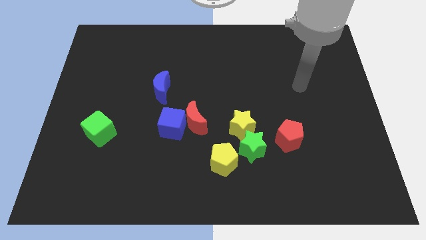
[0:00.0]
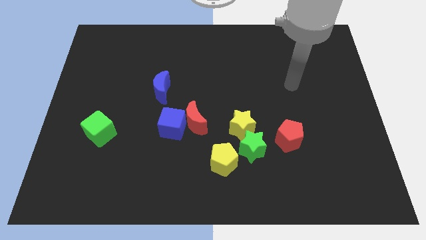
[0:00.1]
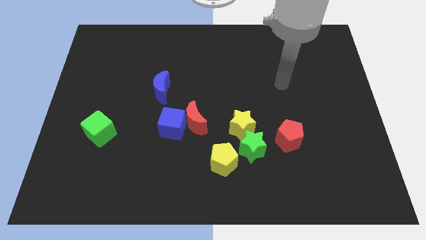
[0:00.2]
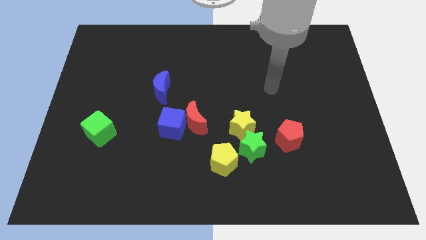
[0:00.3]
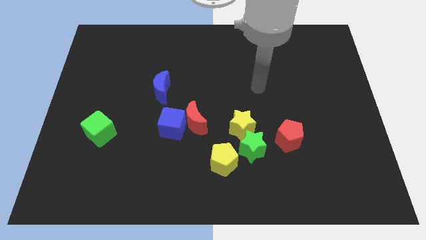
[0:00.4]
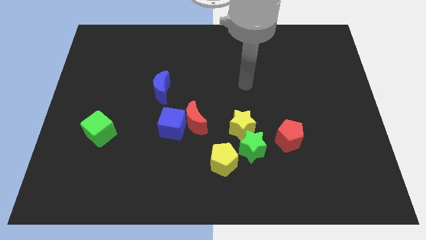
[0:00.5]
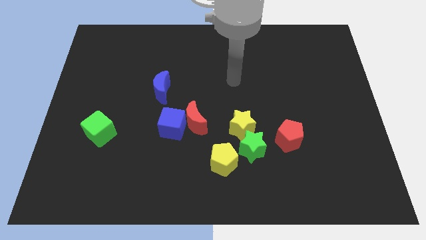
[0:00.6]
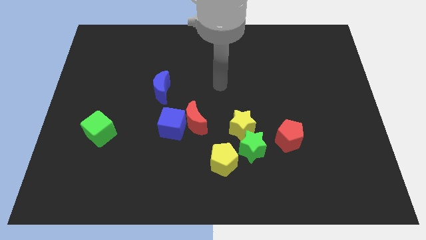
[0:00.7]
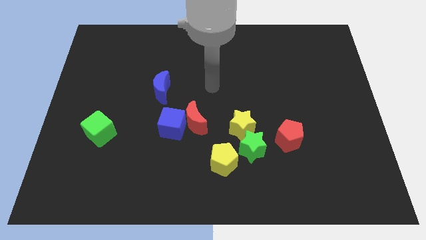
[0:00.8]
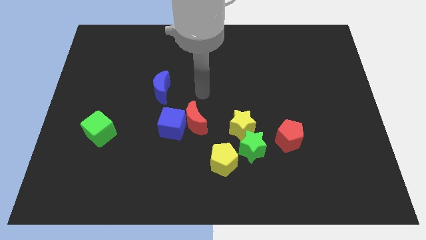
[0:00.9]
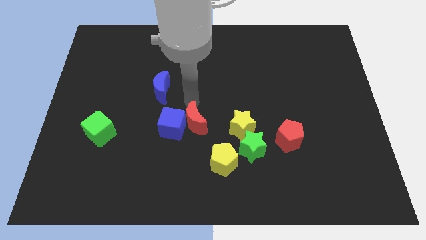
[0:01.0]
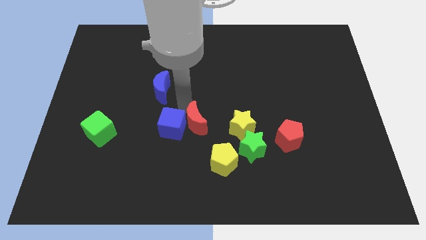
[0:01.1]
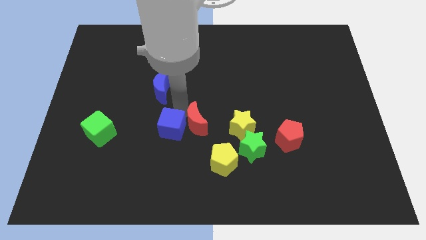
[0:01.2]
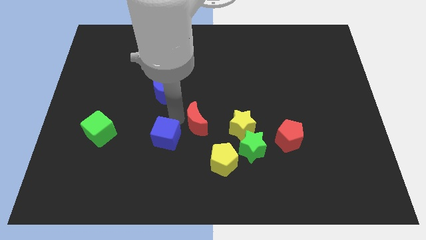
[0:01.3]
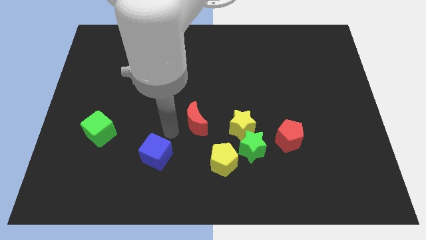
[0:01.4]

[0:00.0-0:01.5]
separate the red moon from the blue cube

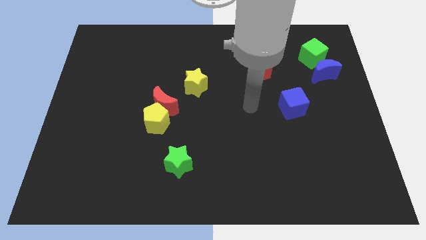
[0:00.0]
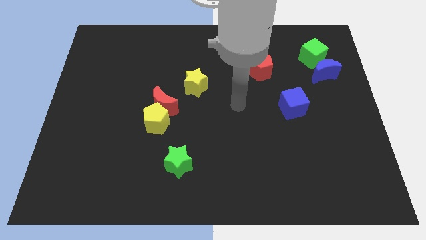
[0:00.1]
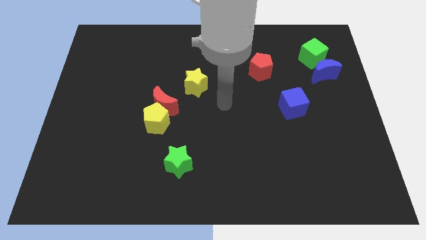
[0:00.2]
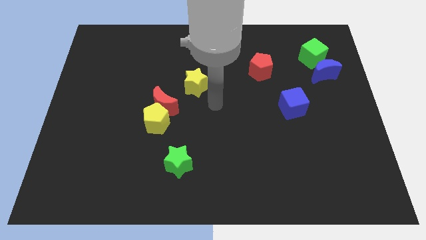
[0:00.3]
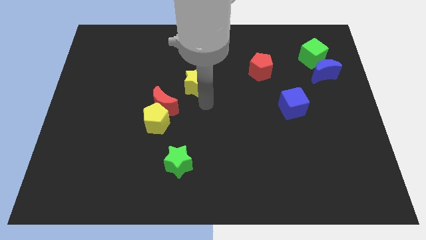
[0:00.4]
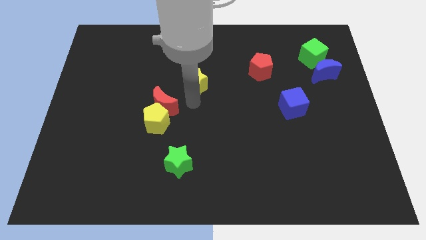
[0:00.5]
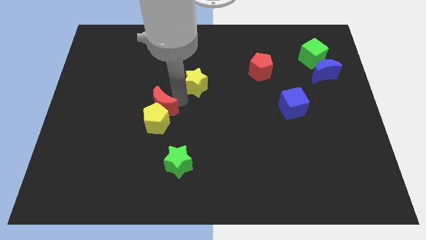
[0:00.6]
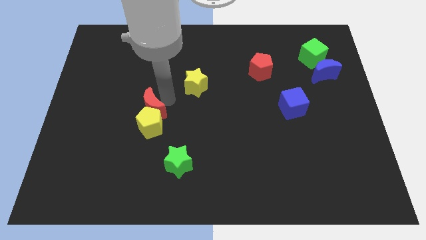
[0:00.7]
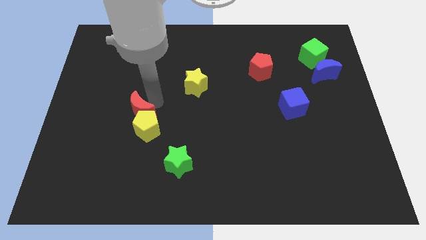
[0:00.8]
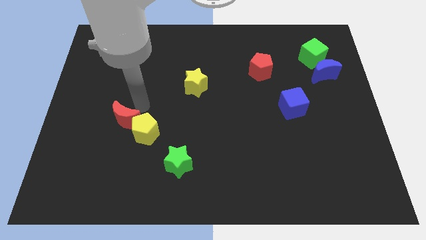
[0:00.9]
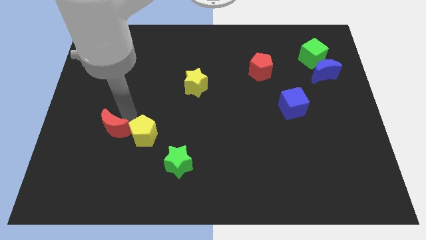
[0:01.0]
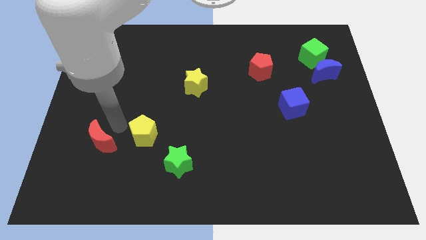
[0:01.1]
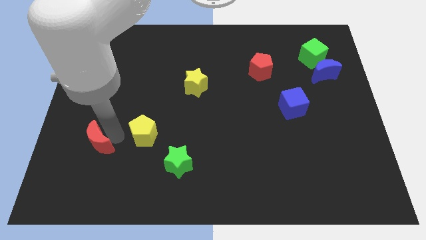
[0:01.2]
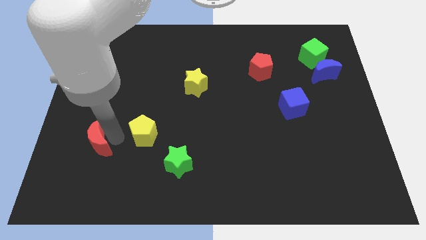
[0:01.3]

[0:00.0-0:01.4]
separate the yellow pentagon from the red moon

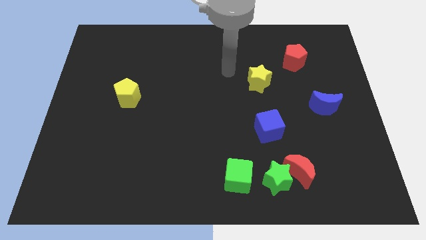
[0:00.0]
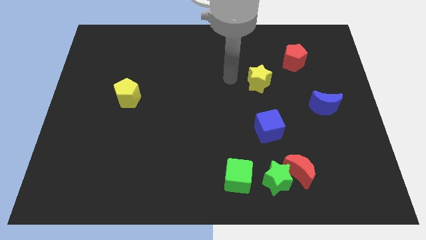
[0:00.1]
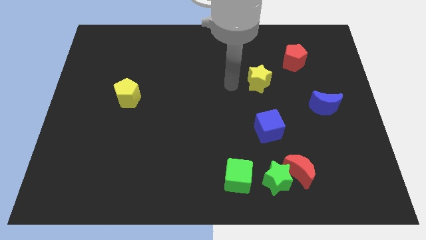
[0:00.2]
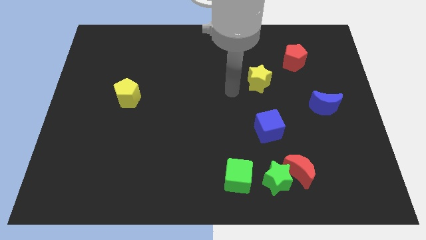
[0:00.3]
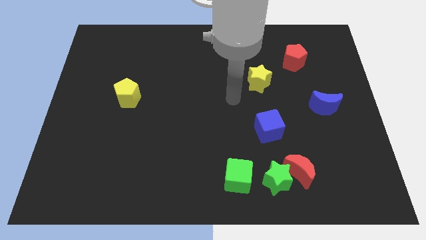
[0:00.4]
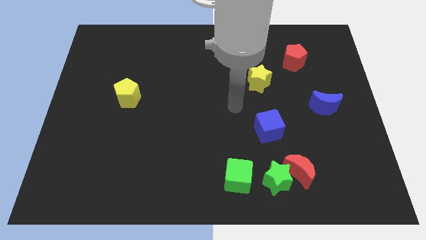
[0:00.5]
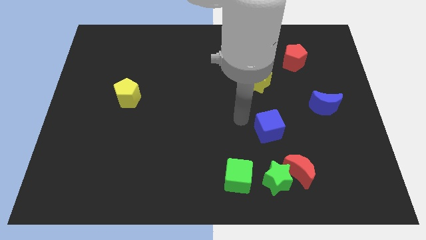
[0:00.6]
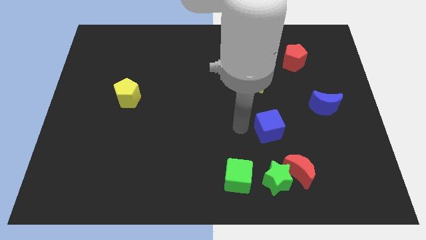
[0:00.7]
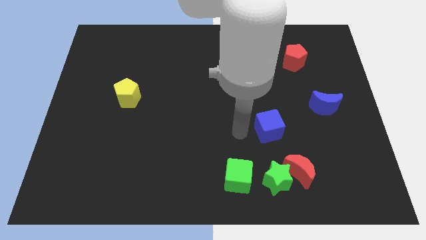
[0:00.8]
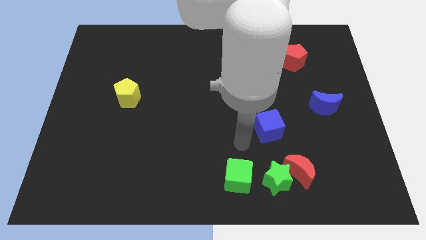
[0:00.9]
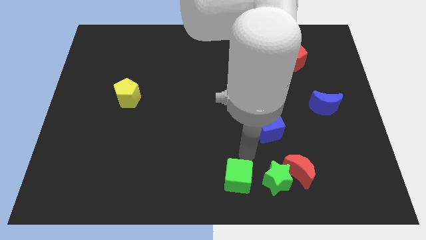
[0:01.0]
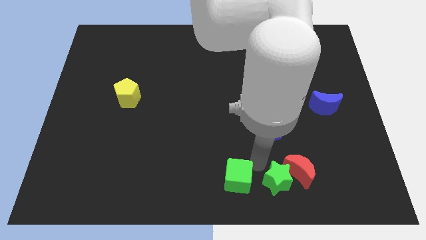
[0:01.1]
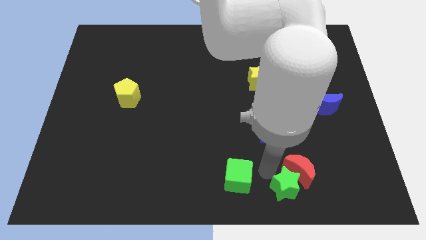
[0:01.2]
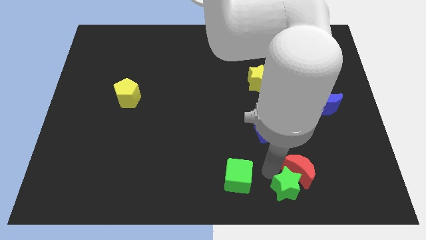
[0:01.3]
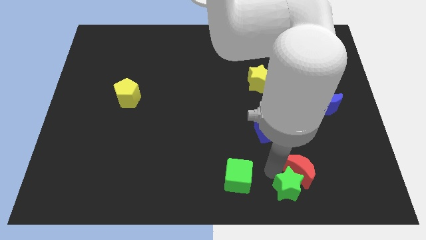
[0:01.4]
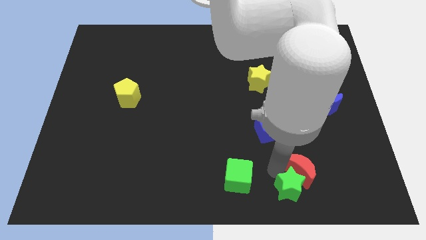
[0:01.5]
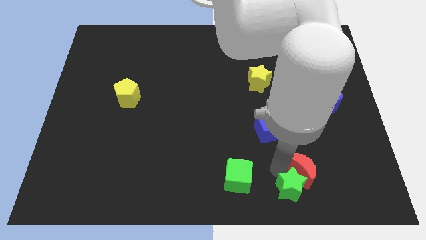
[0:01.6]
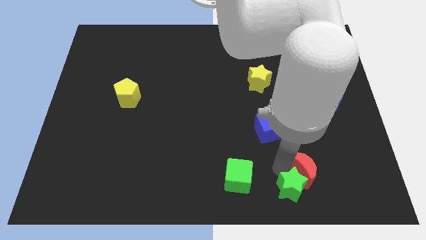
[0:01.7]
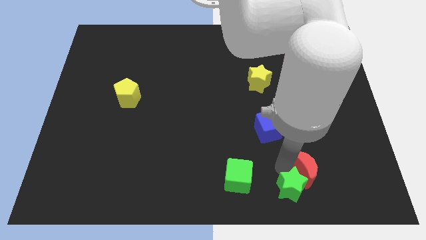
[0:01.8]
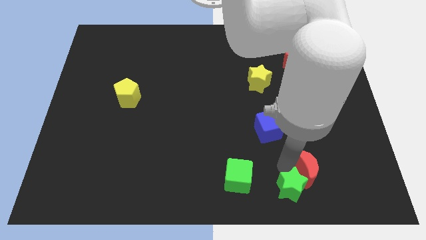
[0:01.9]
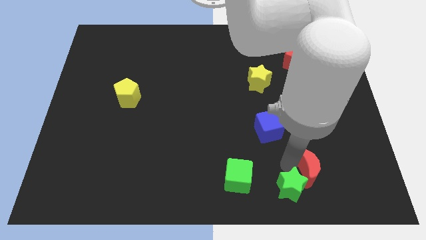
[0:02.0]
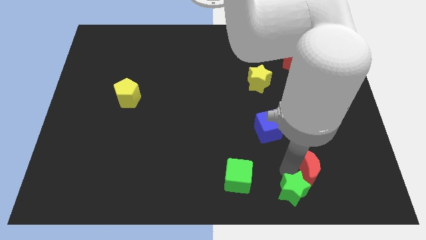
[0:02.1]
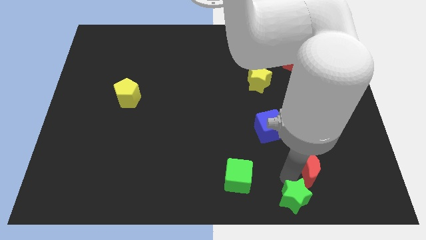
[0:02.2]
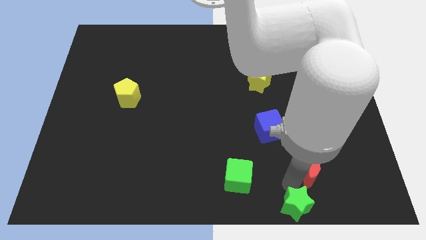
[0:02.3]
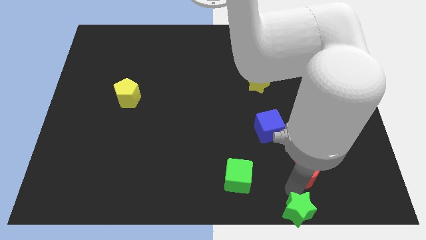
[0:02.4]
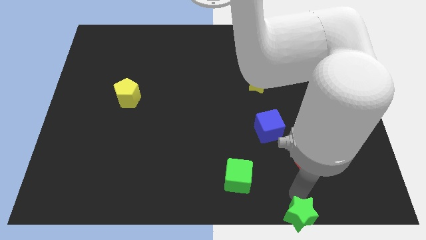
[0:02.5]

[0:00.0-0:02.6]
separate the red moon from the green star

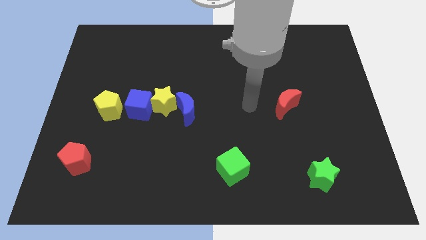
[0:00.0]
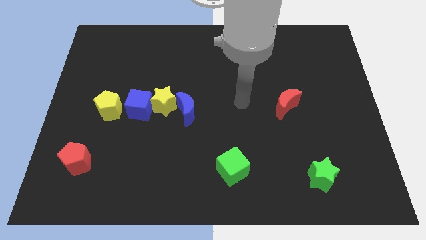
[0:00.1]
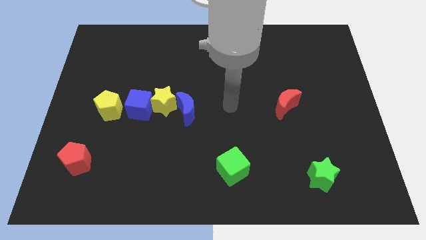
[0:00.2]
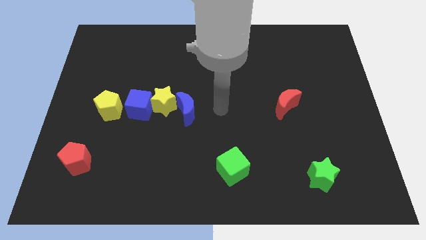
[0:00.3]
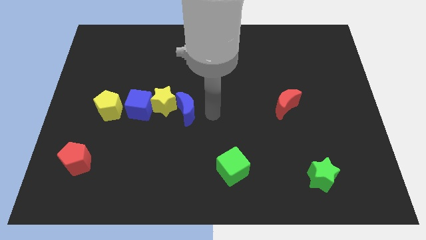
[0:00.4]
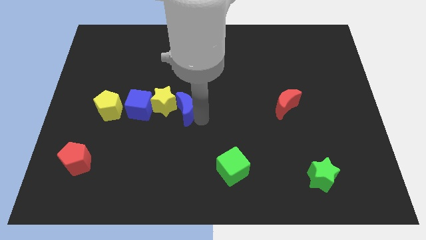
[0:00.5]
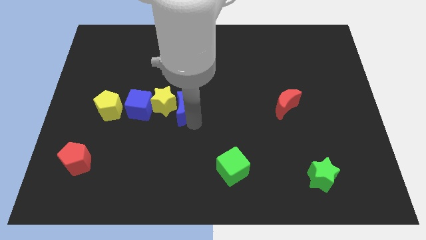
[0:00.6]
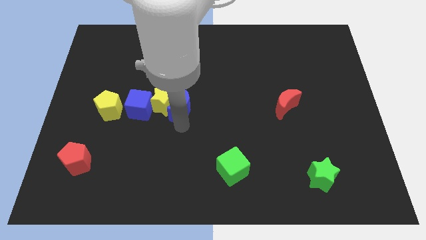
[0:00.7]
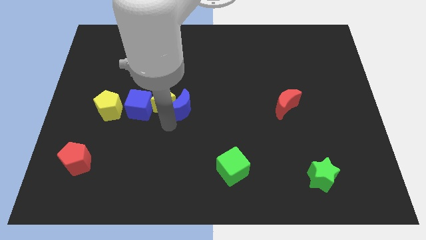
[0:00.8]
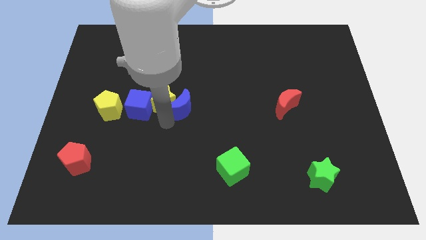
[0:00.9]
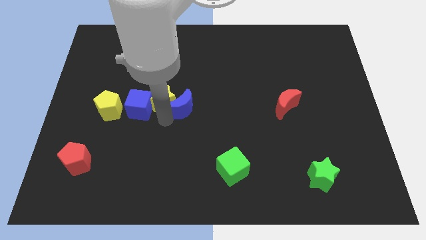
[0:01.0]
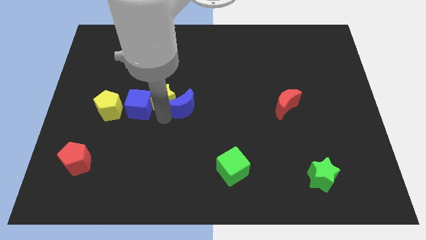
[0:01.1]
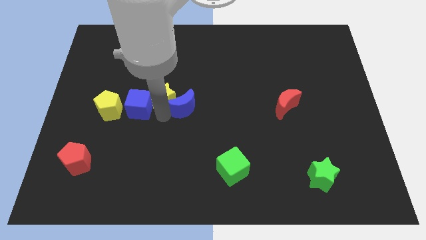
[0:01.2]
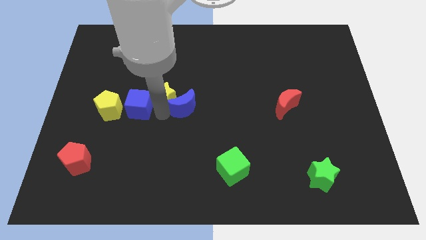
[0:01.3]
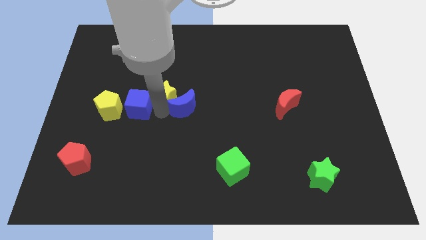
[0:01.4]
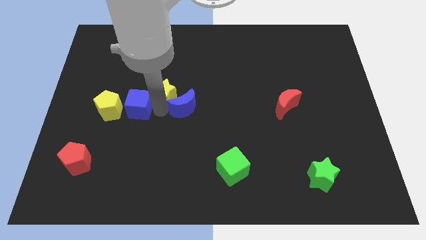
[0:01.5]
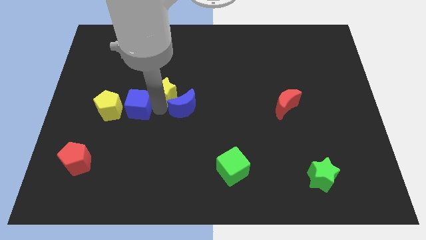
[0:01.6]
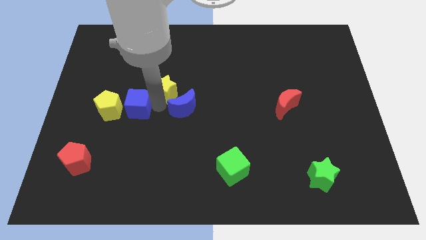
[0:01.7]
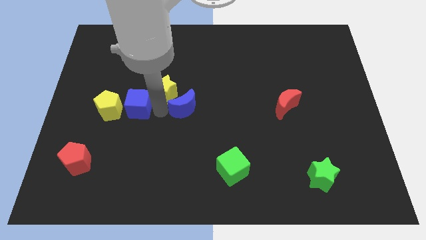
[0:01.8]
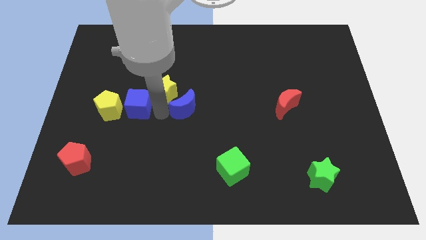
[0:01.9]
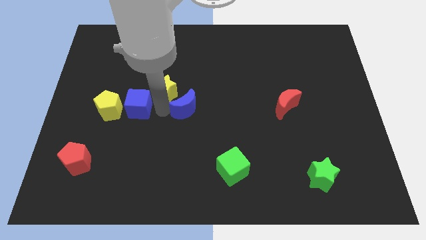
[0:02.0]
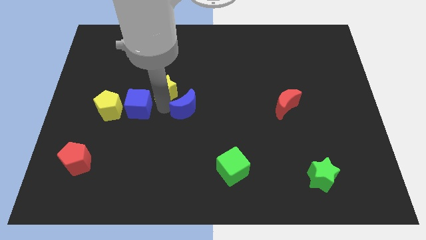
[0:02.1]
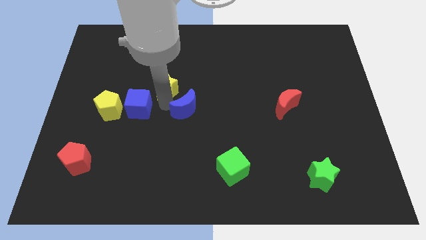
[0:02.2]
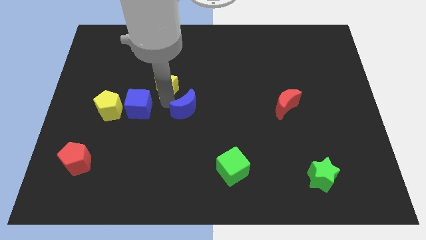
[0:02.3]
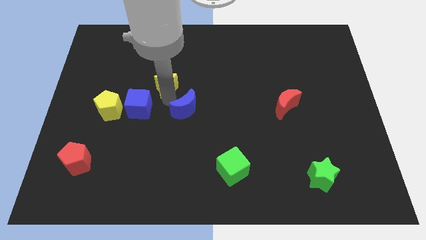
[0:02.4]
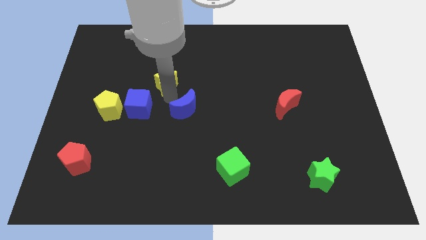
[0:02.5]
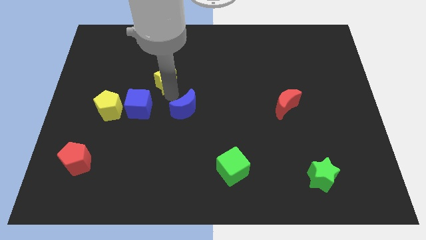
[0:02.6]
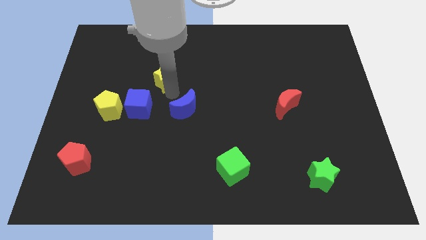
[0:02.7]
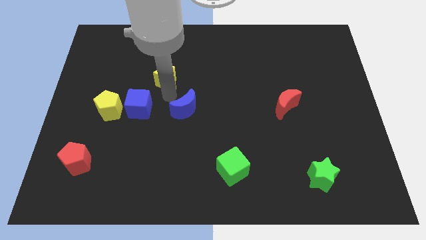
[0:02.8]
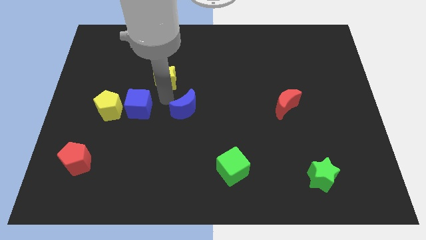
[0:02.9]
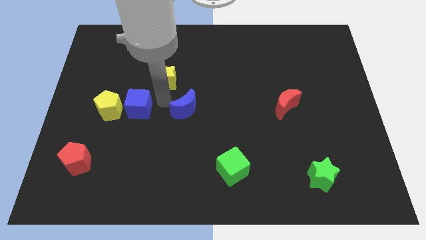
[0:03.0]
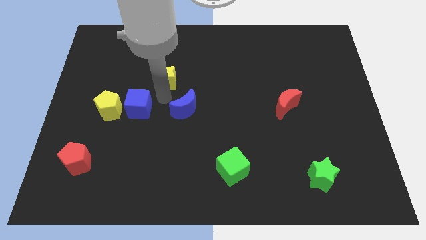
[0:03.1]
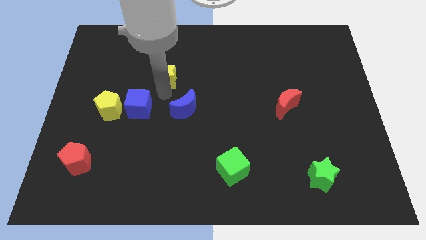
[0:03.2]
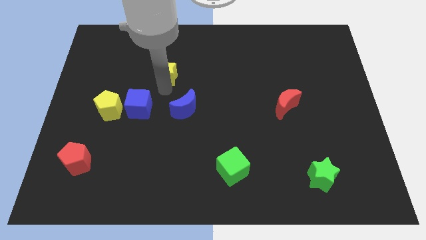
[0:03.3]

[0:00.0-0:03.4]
separate the yellow star from the blue cube and blue moon

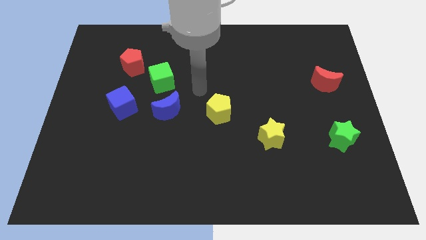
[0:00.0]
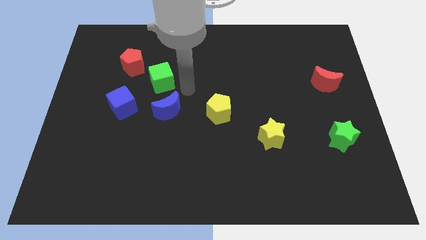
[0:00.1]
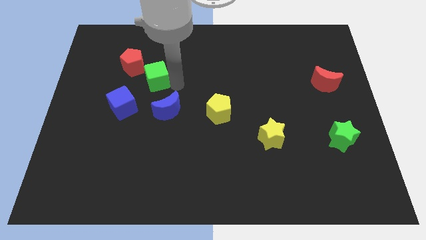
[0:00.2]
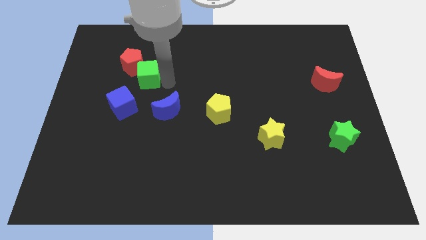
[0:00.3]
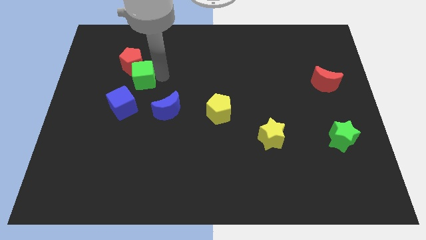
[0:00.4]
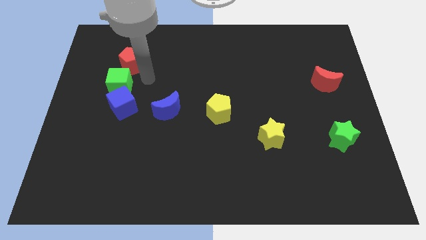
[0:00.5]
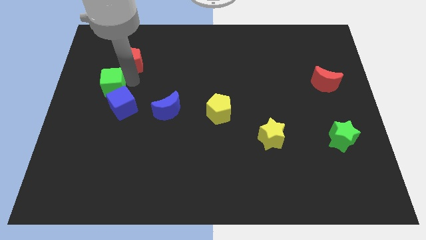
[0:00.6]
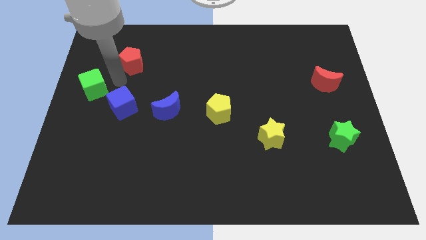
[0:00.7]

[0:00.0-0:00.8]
separate the red pentagon from the green cube
